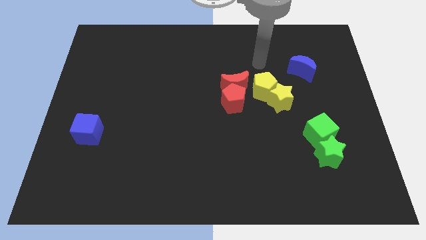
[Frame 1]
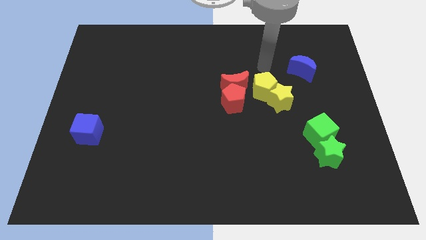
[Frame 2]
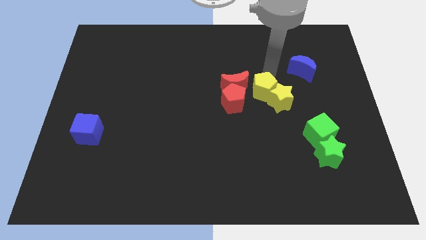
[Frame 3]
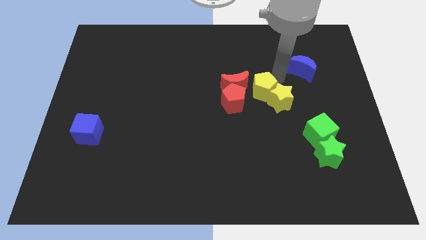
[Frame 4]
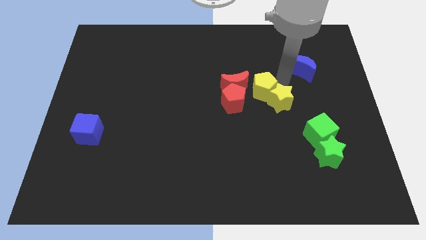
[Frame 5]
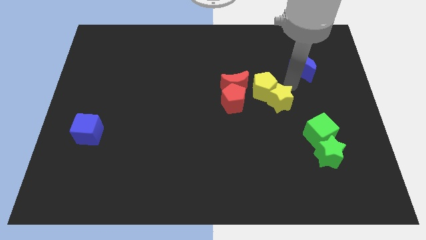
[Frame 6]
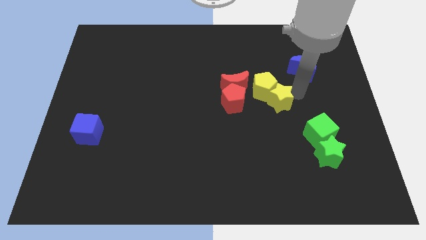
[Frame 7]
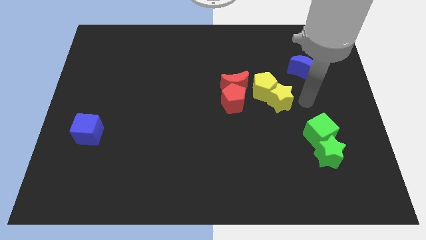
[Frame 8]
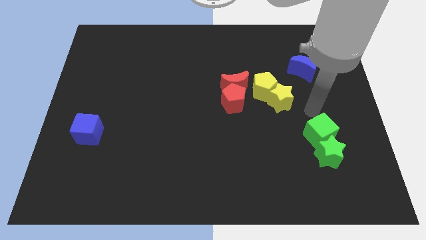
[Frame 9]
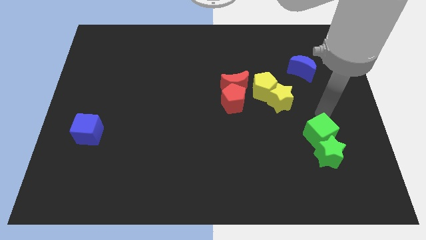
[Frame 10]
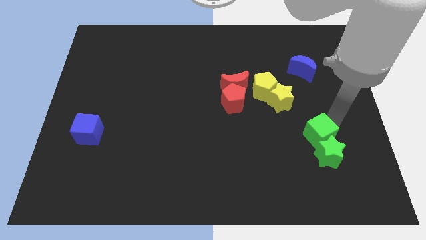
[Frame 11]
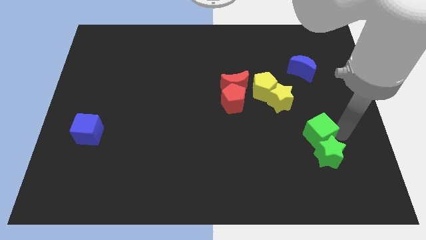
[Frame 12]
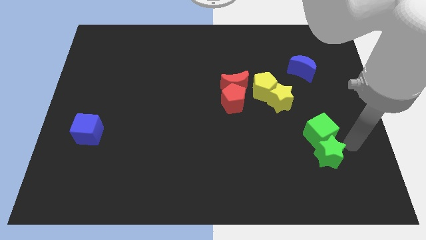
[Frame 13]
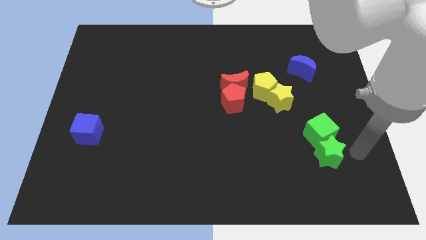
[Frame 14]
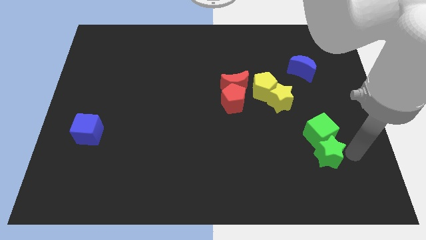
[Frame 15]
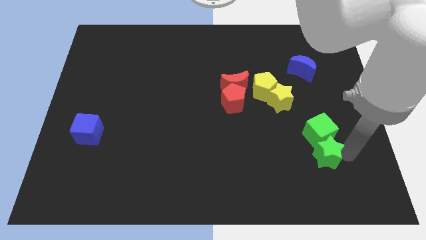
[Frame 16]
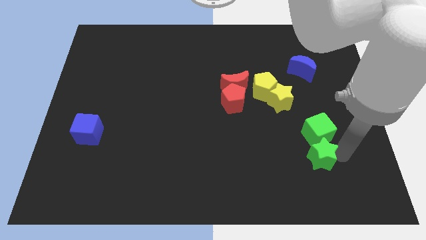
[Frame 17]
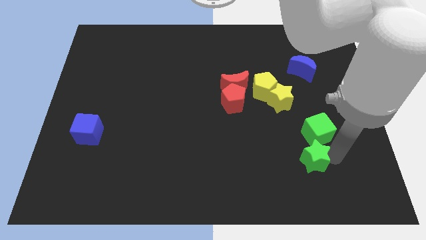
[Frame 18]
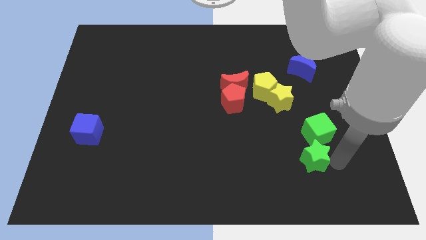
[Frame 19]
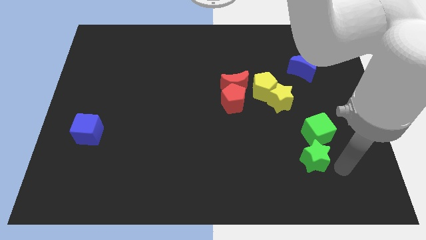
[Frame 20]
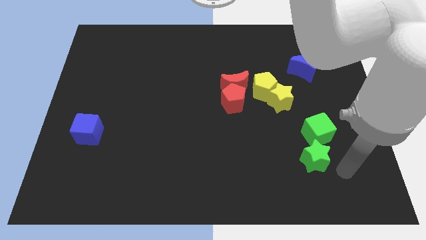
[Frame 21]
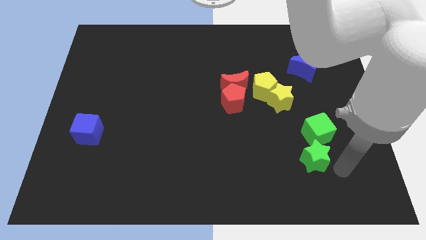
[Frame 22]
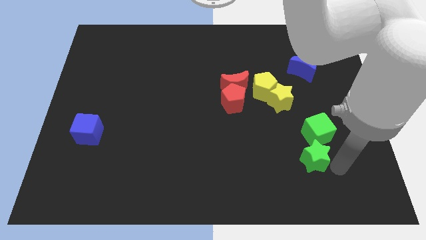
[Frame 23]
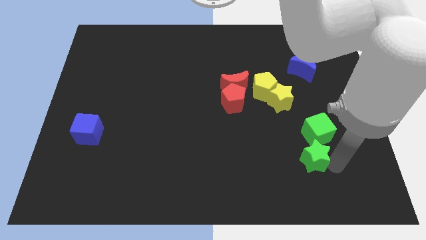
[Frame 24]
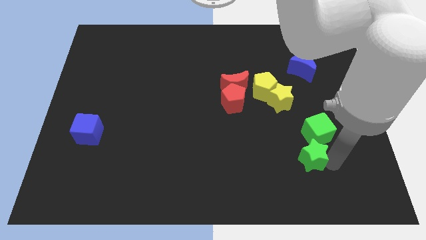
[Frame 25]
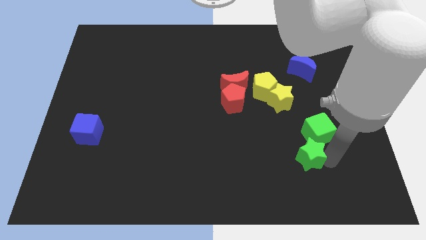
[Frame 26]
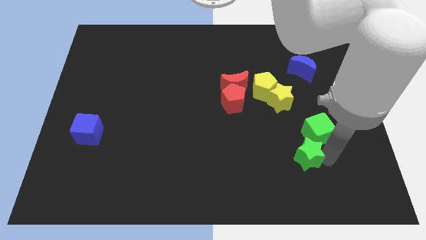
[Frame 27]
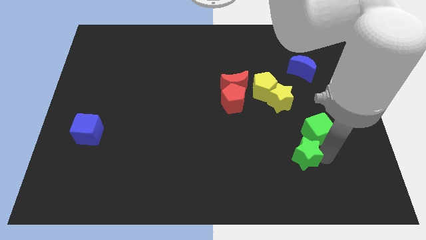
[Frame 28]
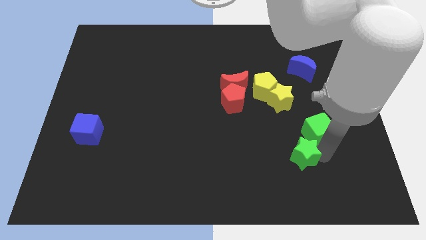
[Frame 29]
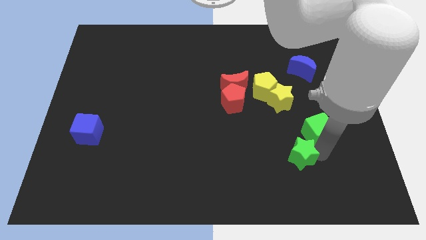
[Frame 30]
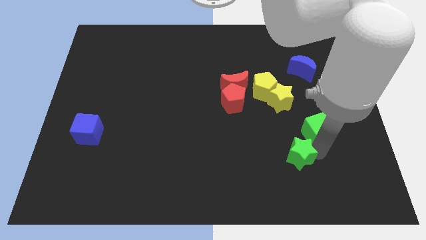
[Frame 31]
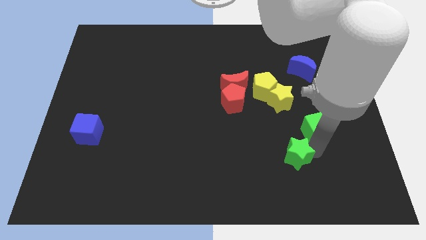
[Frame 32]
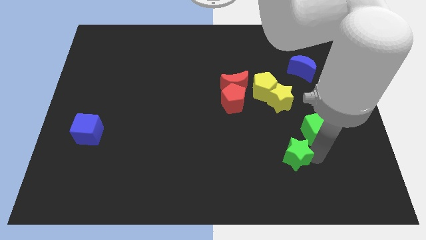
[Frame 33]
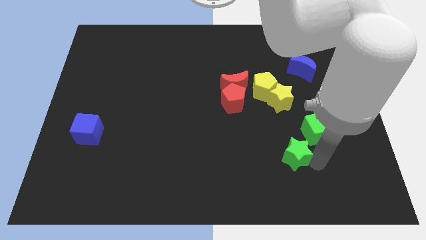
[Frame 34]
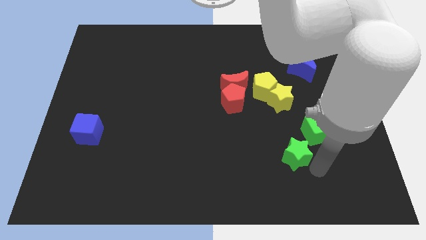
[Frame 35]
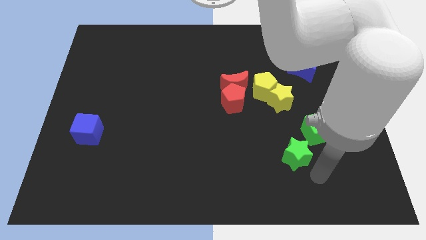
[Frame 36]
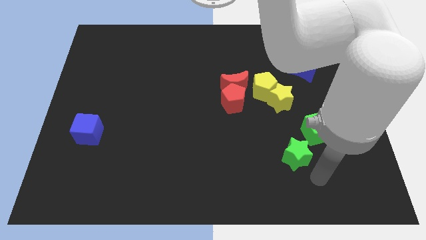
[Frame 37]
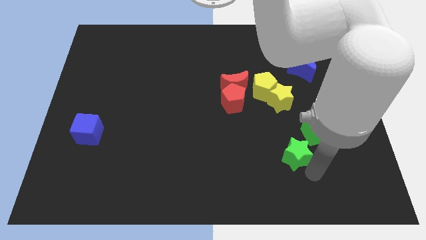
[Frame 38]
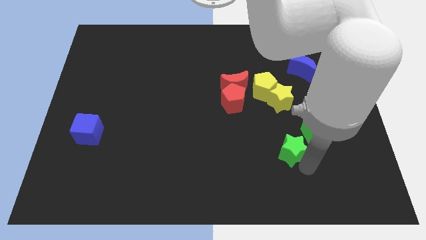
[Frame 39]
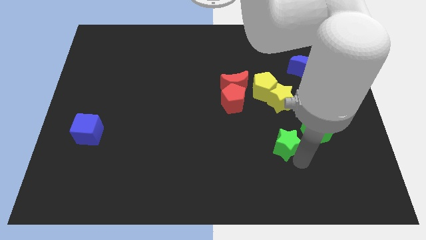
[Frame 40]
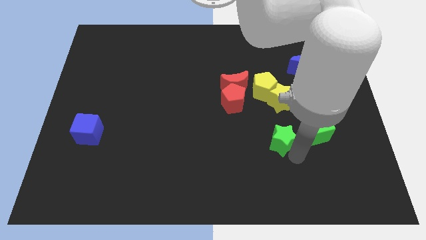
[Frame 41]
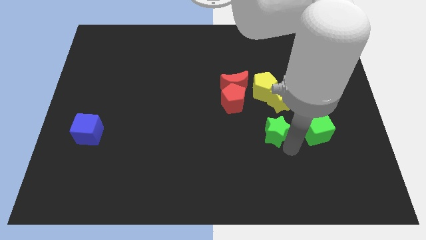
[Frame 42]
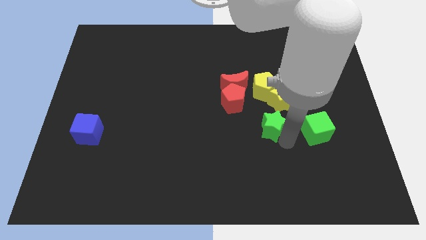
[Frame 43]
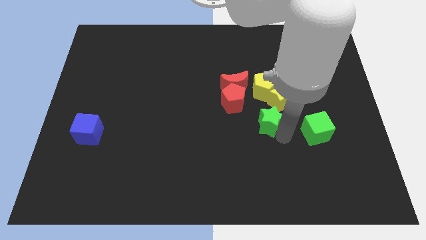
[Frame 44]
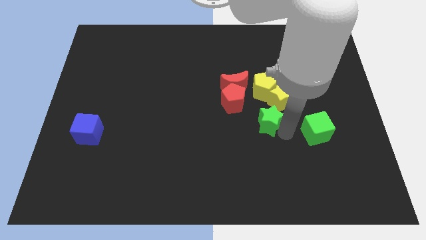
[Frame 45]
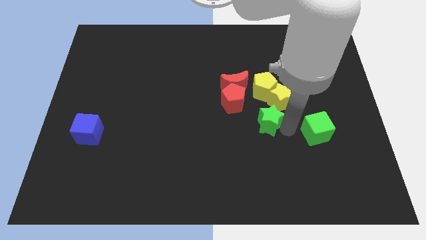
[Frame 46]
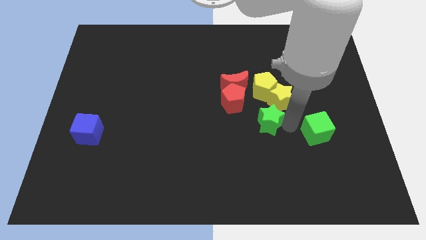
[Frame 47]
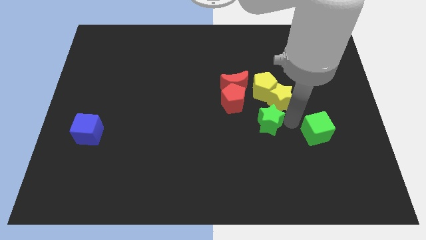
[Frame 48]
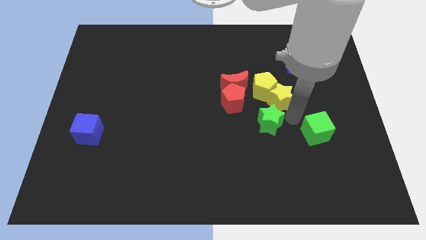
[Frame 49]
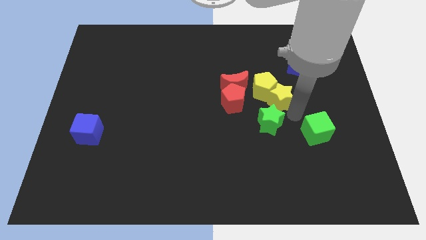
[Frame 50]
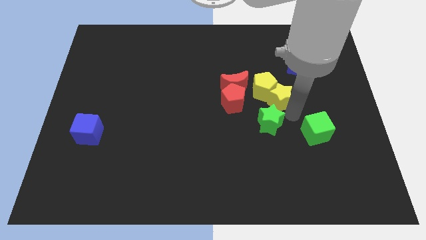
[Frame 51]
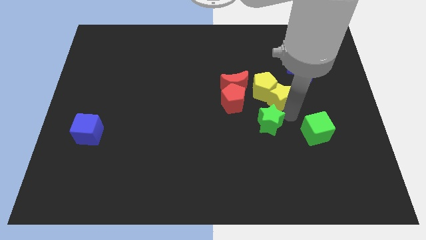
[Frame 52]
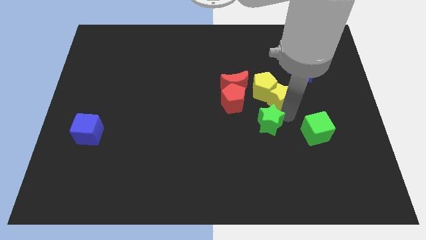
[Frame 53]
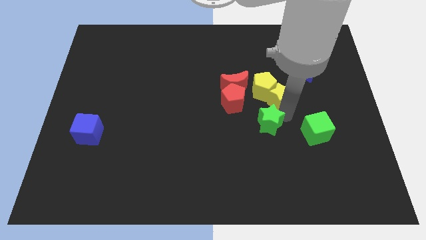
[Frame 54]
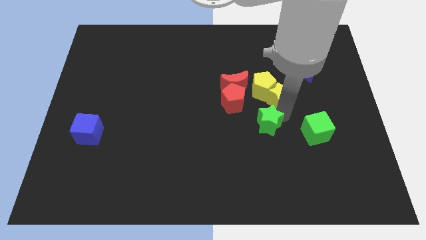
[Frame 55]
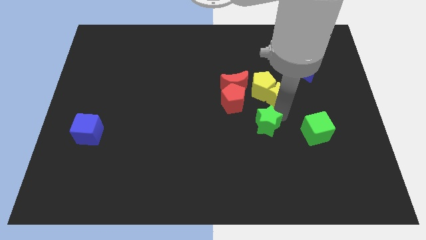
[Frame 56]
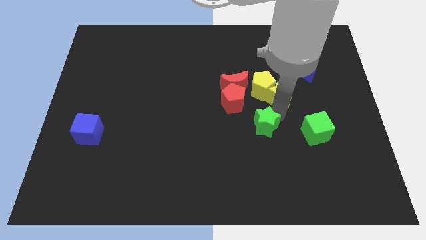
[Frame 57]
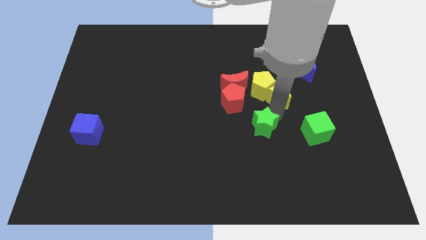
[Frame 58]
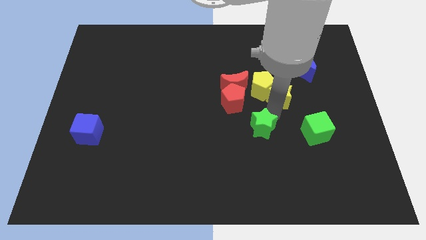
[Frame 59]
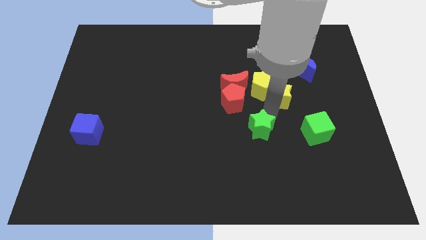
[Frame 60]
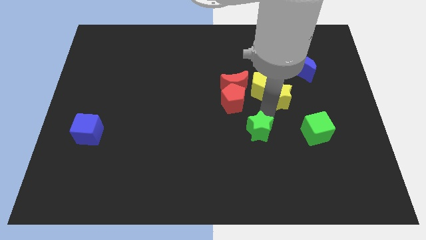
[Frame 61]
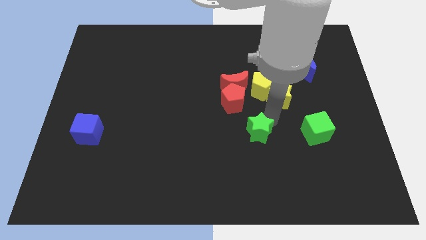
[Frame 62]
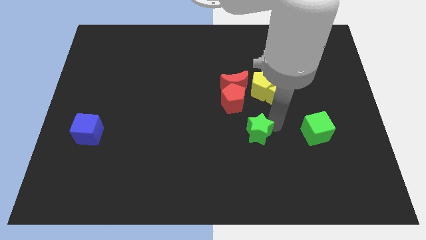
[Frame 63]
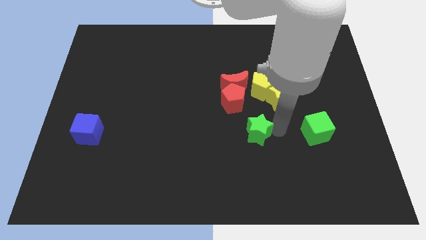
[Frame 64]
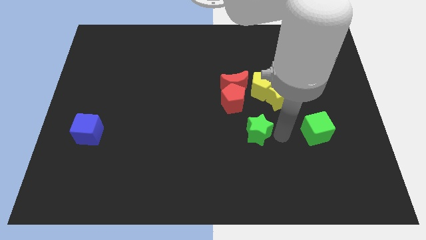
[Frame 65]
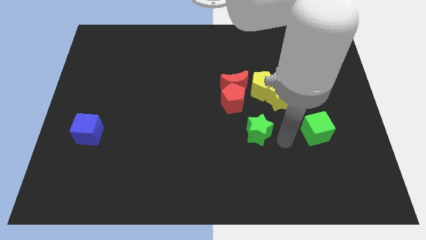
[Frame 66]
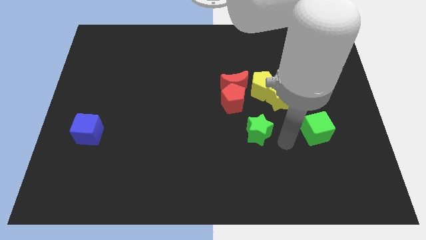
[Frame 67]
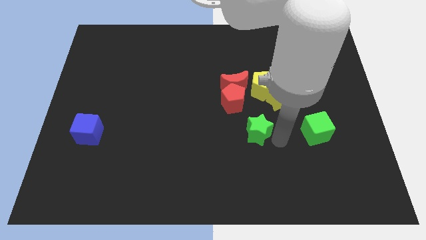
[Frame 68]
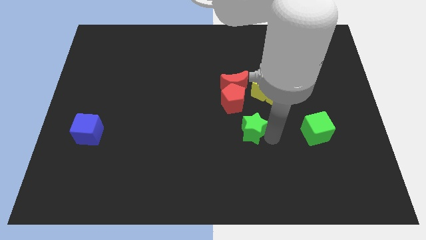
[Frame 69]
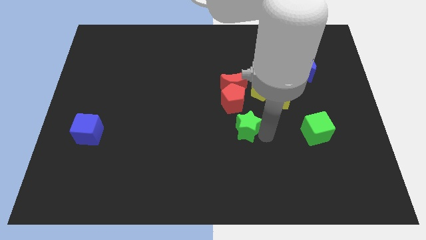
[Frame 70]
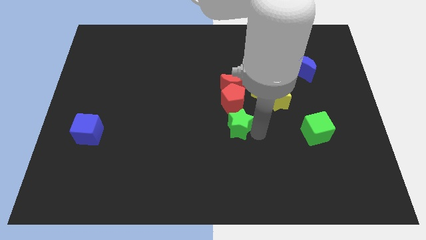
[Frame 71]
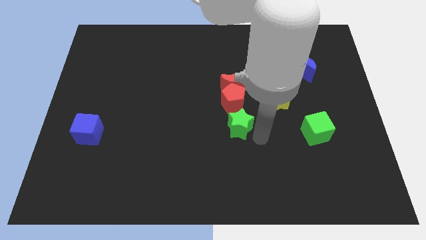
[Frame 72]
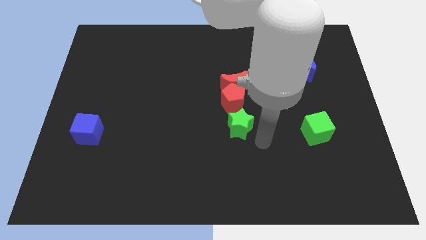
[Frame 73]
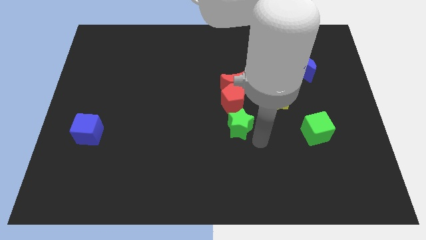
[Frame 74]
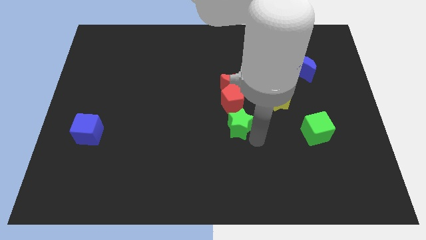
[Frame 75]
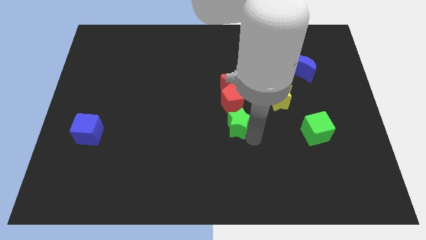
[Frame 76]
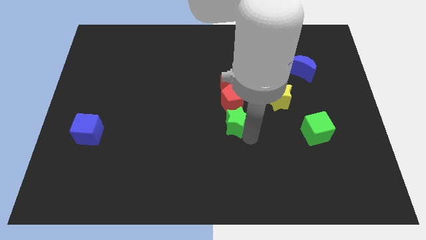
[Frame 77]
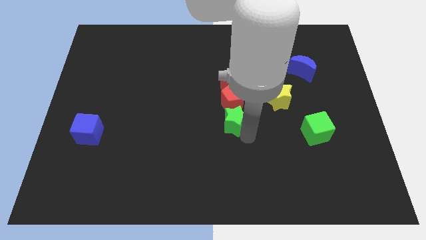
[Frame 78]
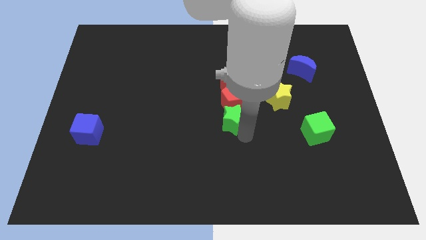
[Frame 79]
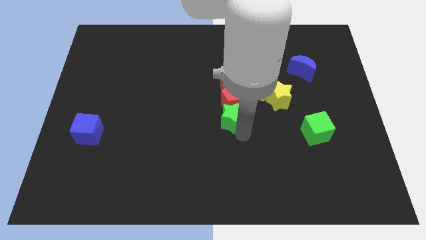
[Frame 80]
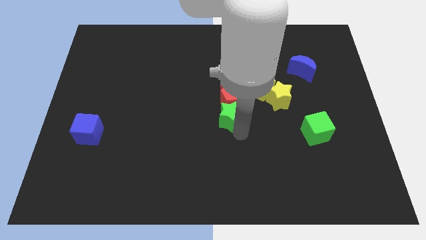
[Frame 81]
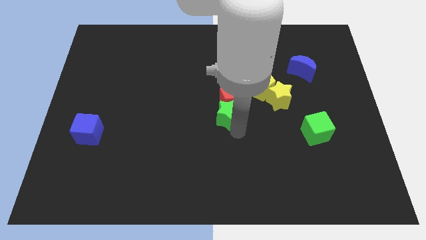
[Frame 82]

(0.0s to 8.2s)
slide the green star diagonally upwards and to the left

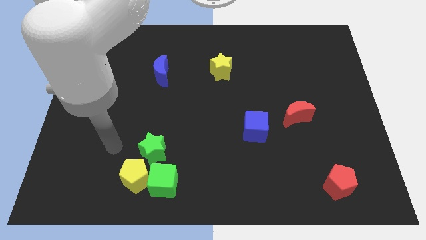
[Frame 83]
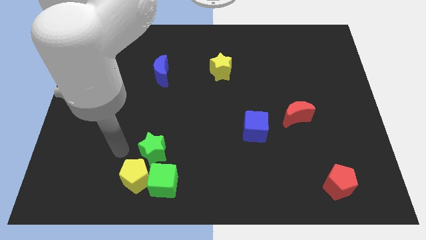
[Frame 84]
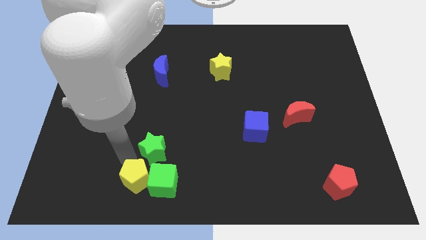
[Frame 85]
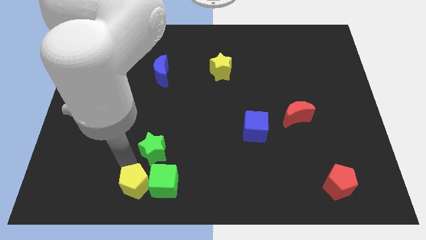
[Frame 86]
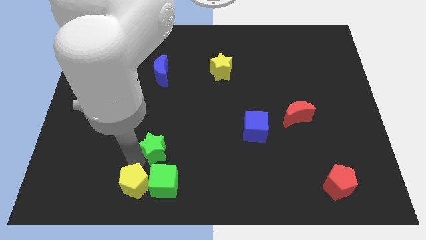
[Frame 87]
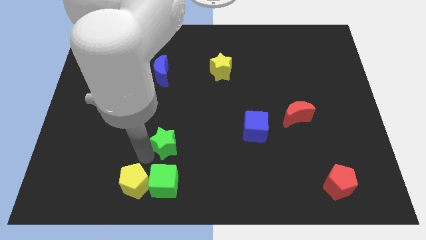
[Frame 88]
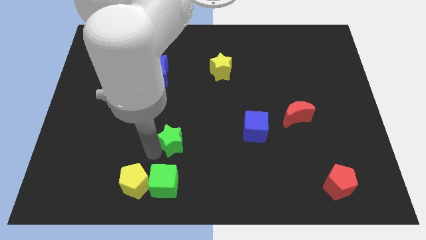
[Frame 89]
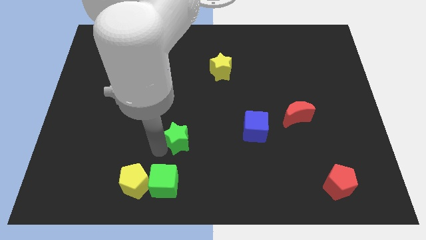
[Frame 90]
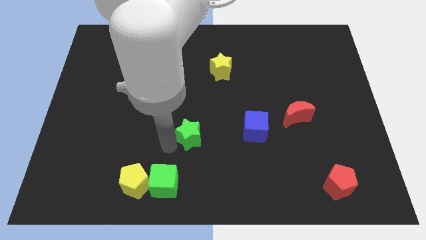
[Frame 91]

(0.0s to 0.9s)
slightly slide the green star diagonally up and right
